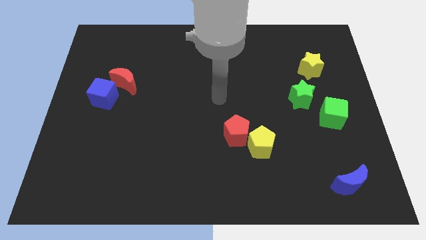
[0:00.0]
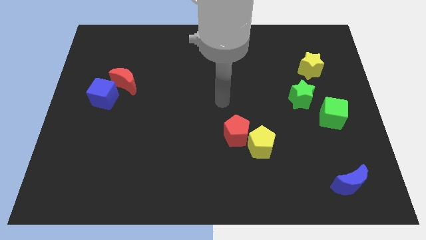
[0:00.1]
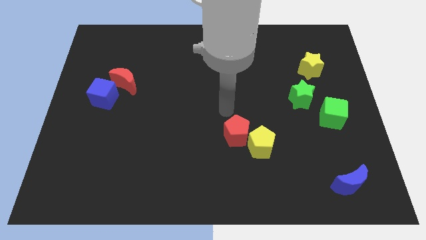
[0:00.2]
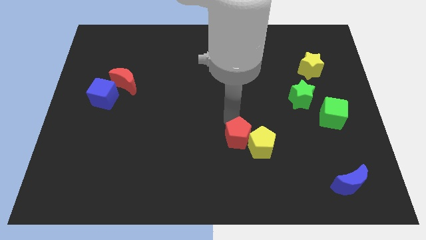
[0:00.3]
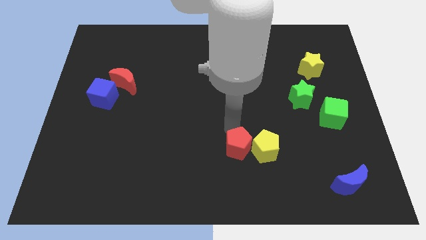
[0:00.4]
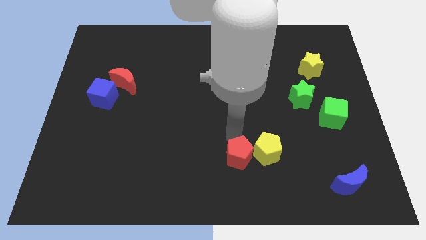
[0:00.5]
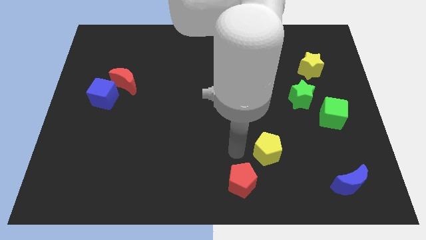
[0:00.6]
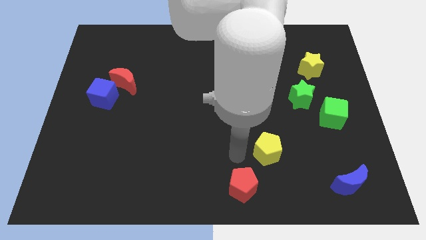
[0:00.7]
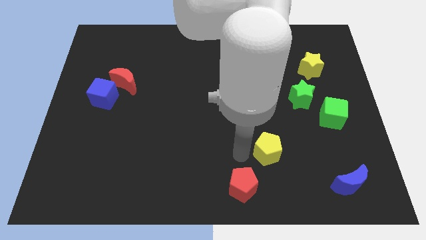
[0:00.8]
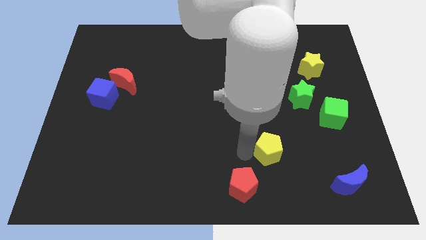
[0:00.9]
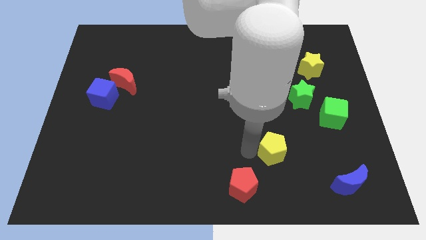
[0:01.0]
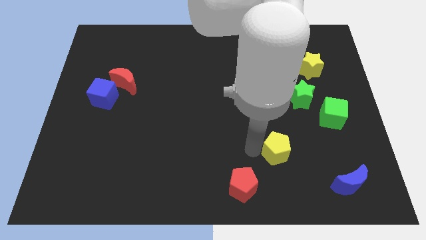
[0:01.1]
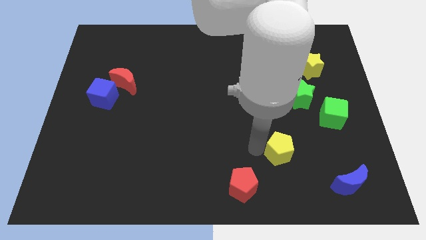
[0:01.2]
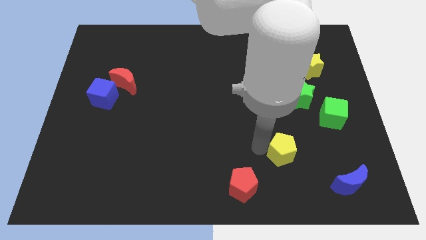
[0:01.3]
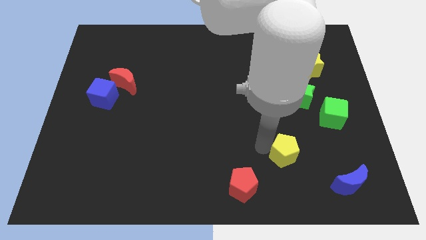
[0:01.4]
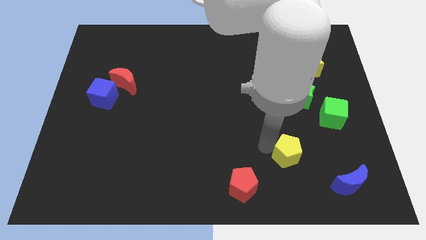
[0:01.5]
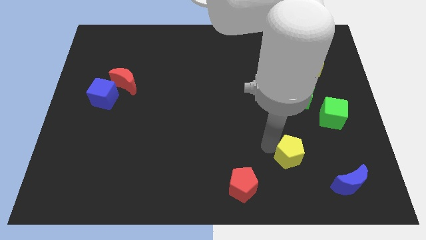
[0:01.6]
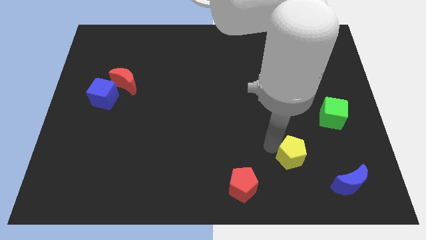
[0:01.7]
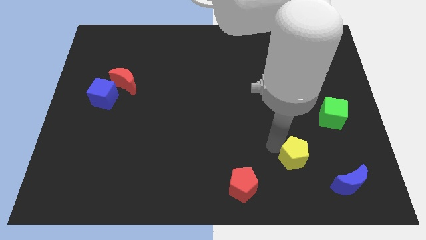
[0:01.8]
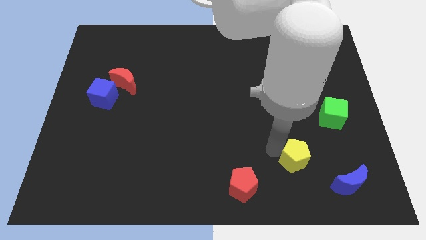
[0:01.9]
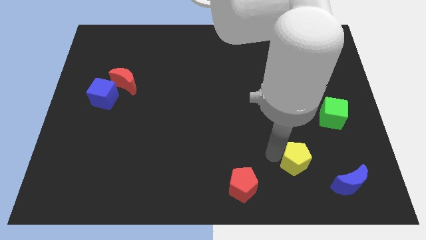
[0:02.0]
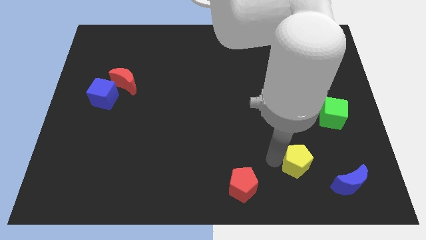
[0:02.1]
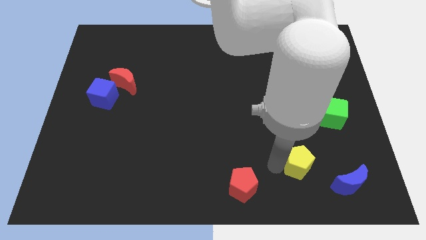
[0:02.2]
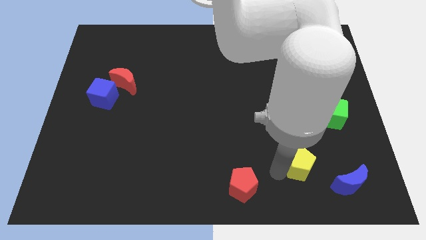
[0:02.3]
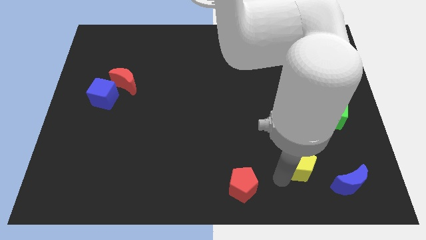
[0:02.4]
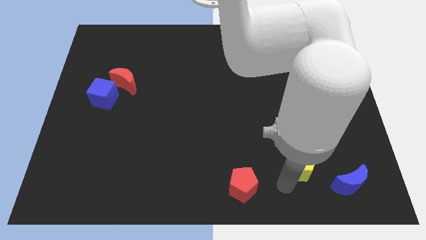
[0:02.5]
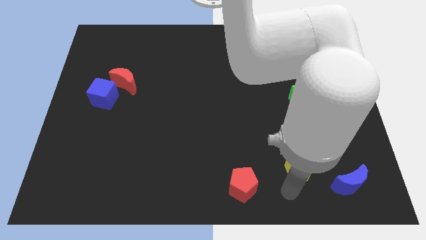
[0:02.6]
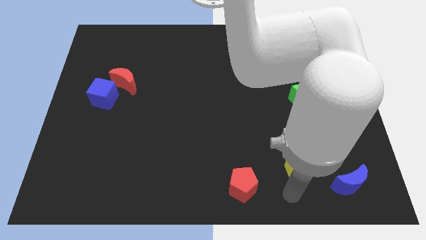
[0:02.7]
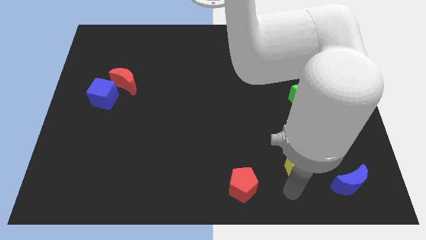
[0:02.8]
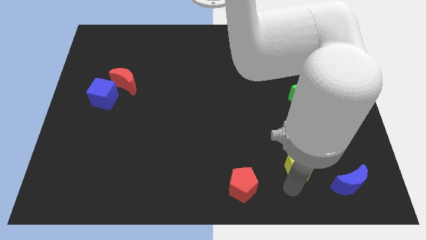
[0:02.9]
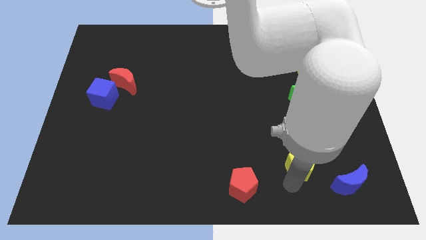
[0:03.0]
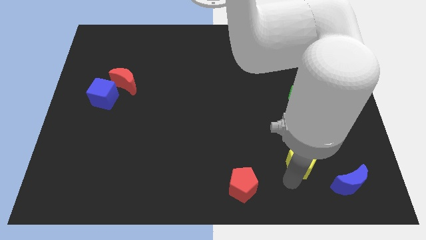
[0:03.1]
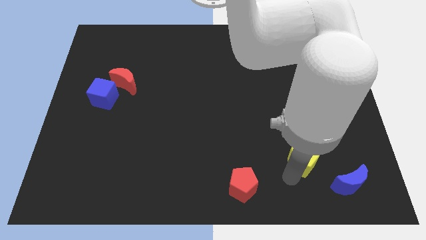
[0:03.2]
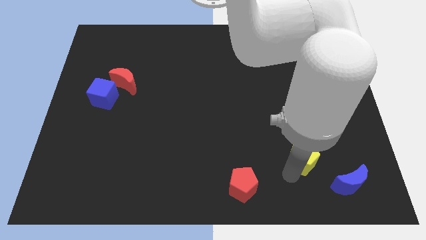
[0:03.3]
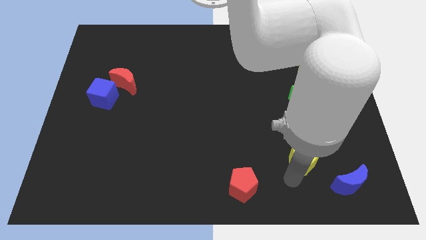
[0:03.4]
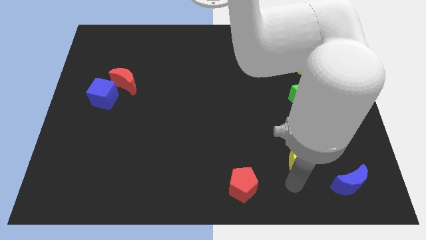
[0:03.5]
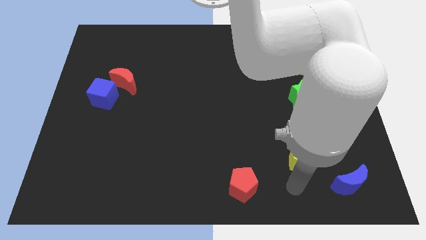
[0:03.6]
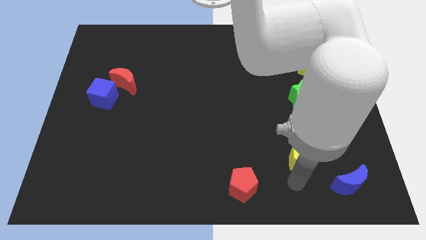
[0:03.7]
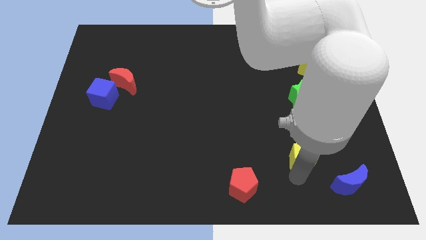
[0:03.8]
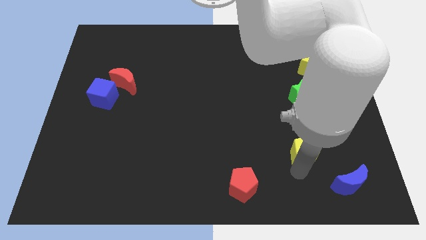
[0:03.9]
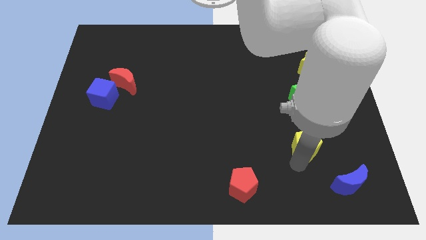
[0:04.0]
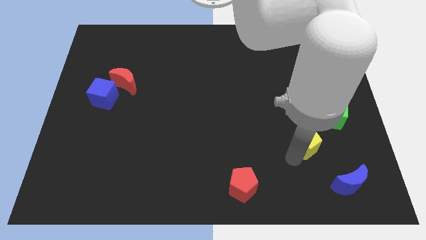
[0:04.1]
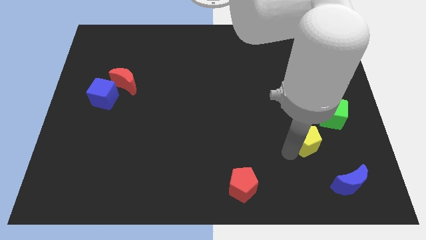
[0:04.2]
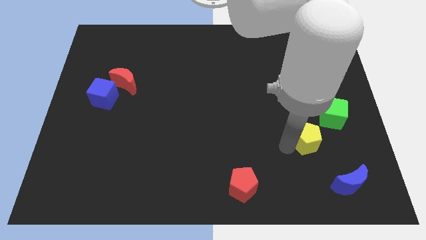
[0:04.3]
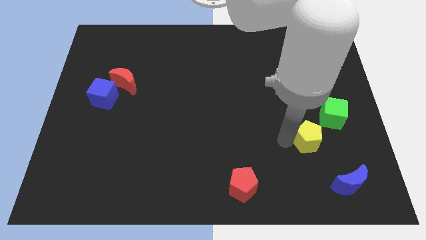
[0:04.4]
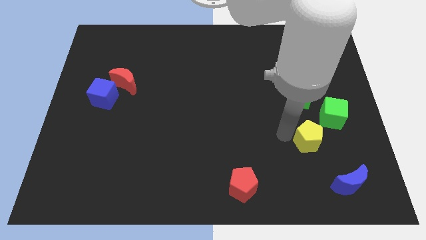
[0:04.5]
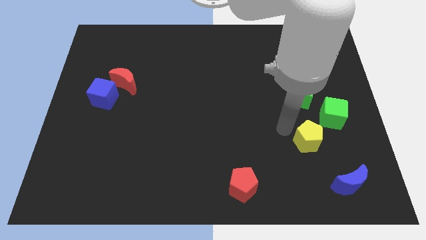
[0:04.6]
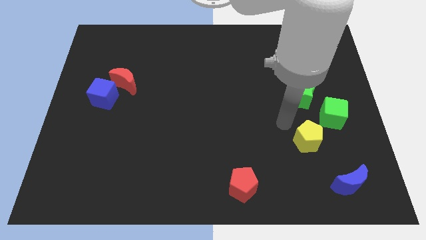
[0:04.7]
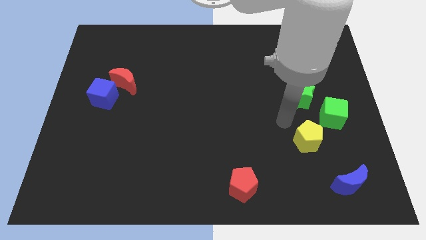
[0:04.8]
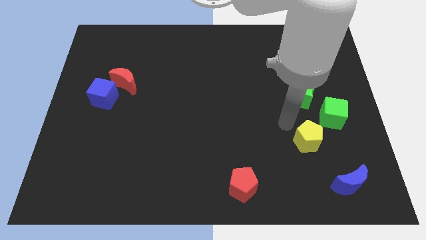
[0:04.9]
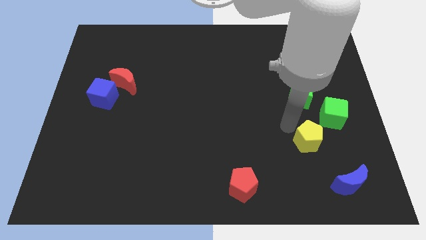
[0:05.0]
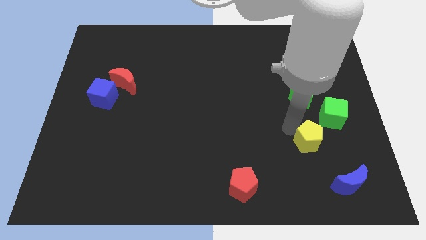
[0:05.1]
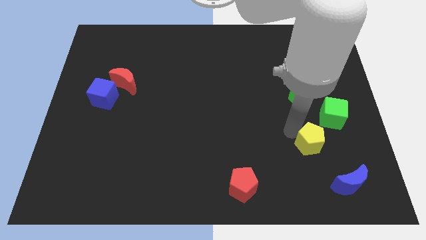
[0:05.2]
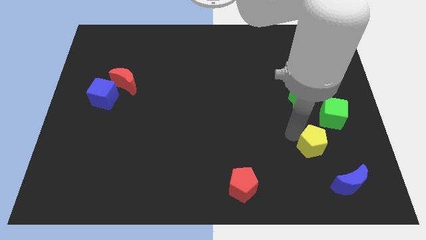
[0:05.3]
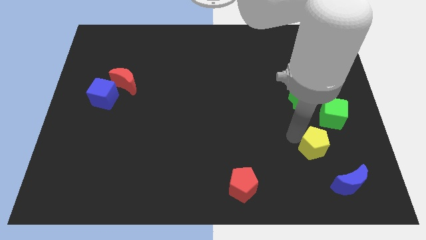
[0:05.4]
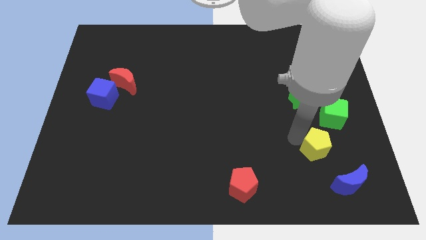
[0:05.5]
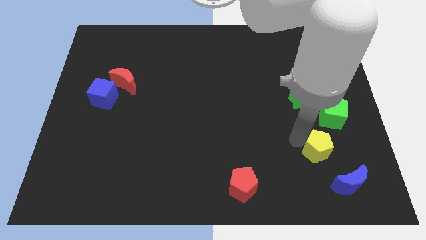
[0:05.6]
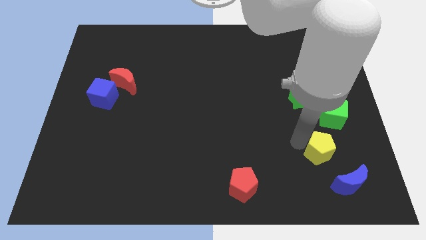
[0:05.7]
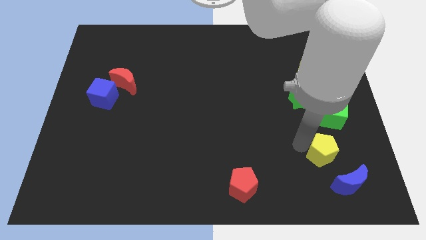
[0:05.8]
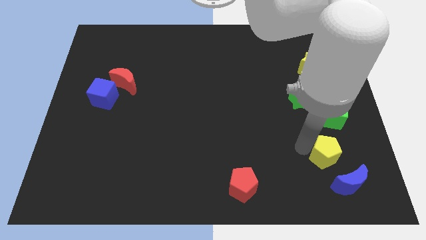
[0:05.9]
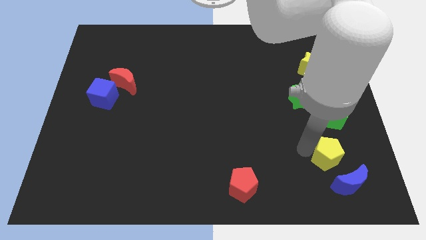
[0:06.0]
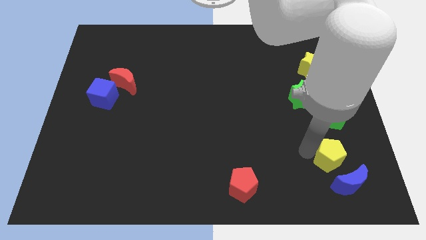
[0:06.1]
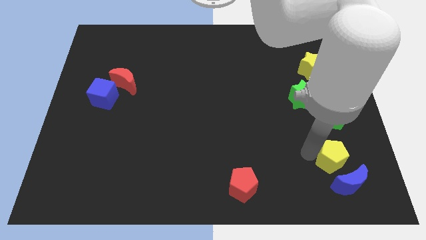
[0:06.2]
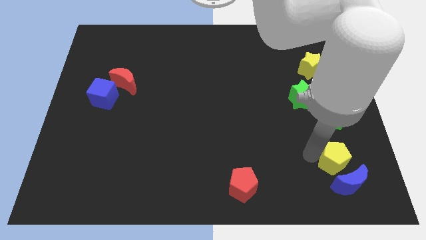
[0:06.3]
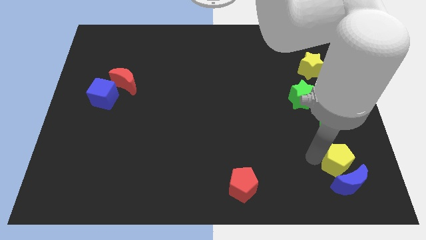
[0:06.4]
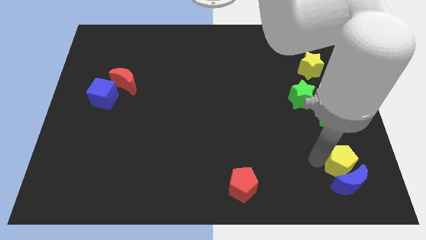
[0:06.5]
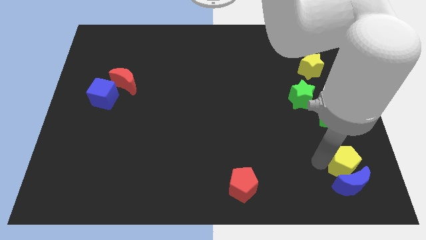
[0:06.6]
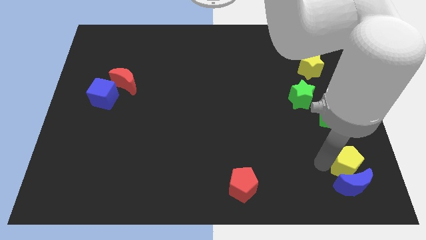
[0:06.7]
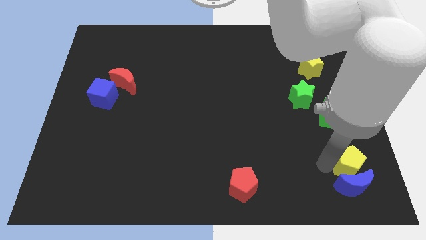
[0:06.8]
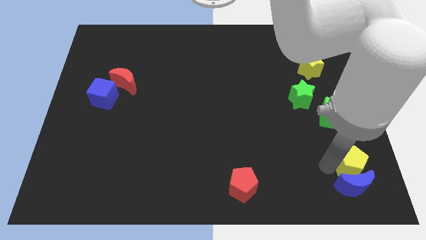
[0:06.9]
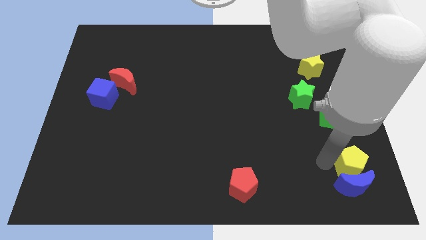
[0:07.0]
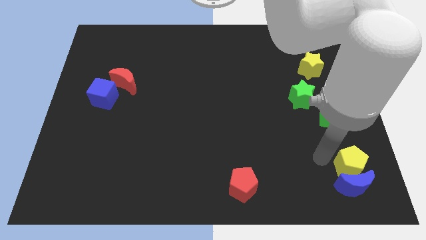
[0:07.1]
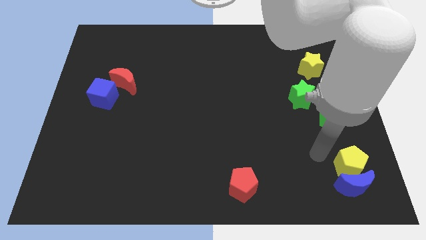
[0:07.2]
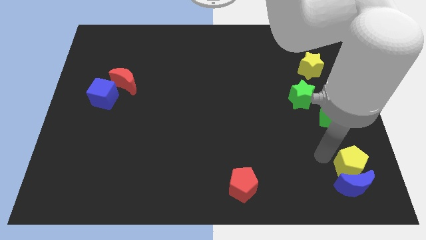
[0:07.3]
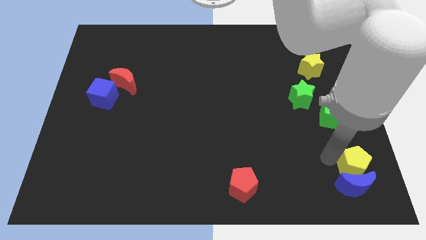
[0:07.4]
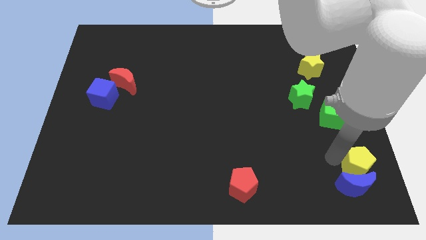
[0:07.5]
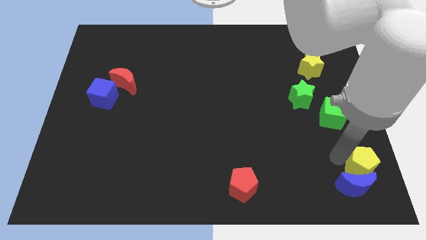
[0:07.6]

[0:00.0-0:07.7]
put the yellow pentagon to the bottom right corner
